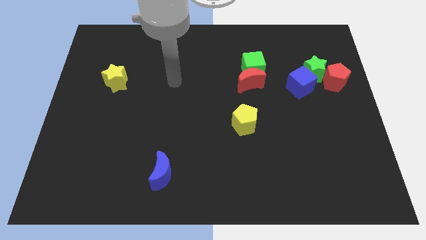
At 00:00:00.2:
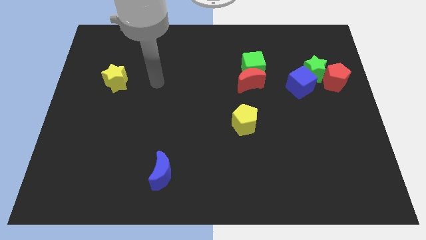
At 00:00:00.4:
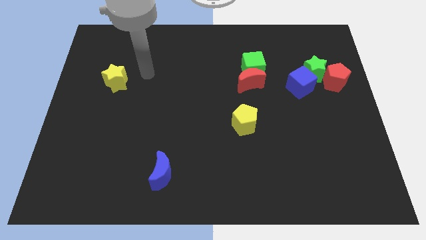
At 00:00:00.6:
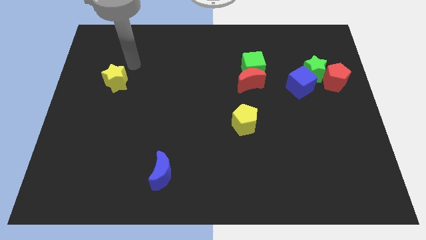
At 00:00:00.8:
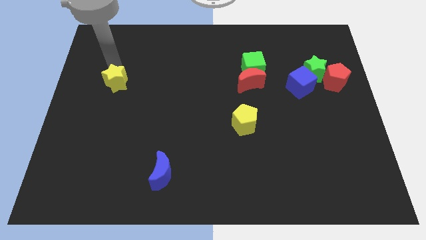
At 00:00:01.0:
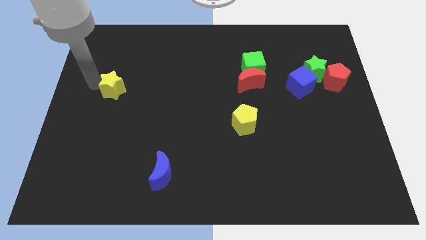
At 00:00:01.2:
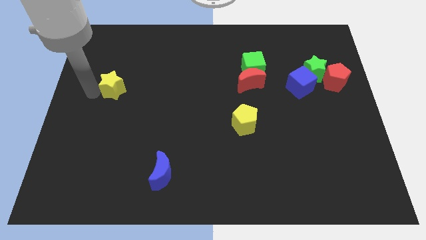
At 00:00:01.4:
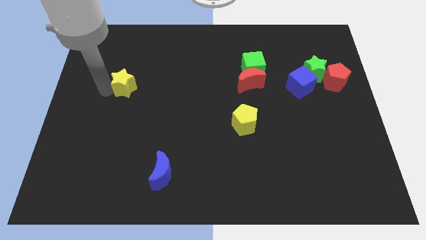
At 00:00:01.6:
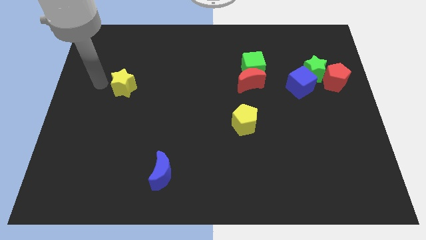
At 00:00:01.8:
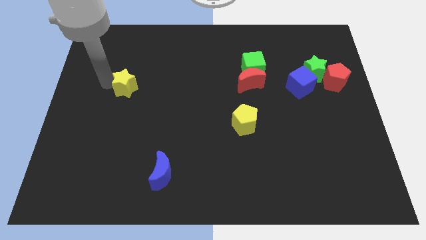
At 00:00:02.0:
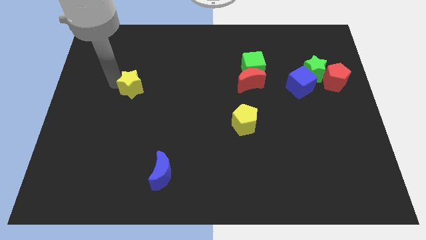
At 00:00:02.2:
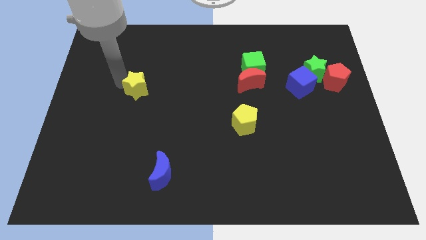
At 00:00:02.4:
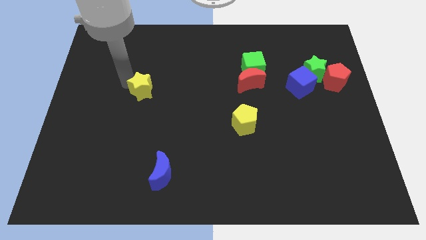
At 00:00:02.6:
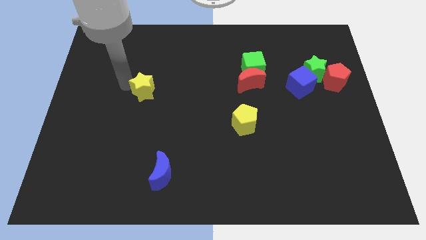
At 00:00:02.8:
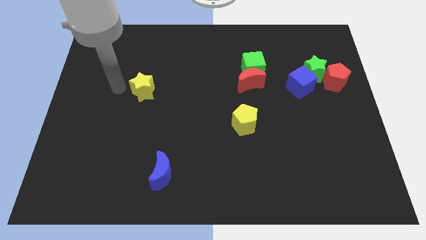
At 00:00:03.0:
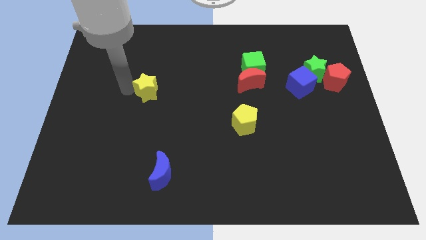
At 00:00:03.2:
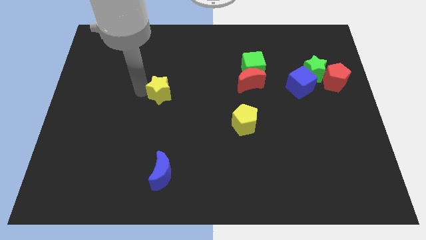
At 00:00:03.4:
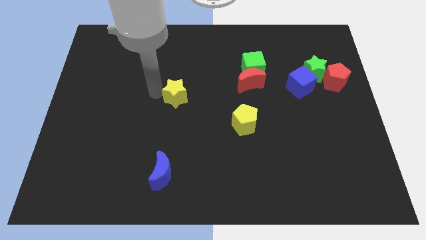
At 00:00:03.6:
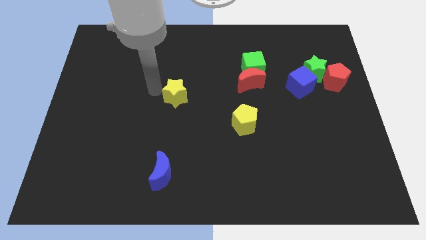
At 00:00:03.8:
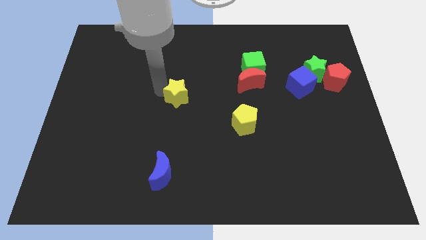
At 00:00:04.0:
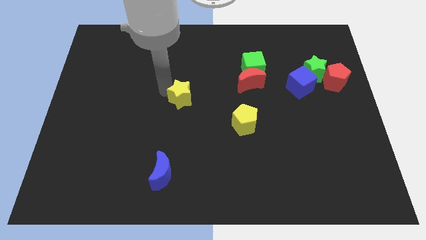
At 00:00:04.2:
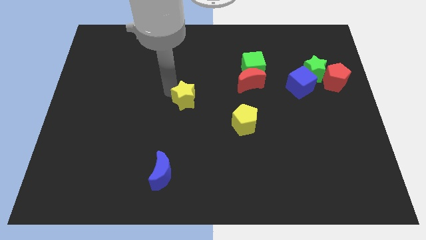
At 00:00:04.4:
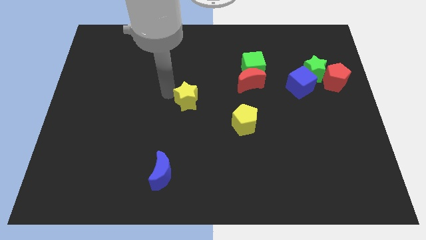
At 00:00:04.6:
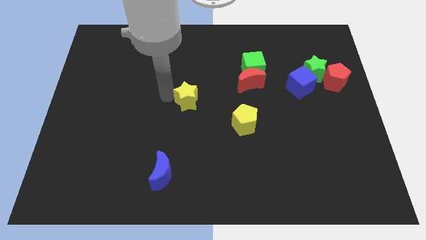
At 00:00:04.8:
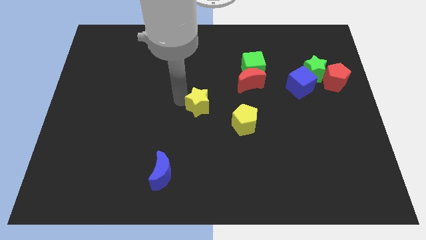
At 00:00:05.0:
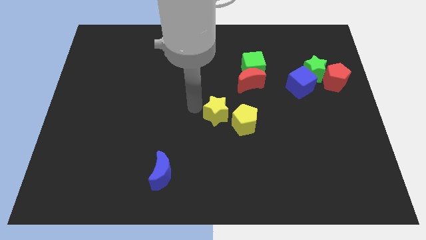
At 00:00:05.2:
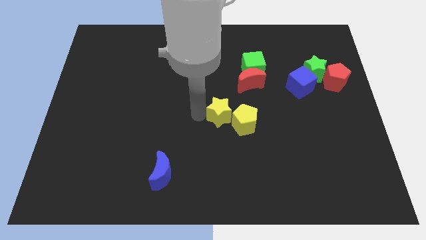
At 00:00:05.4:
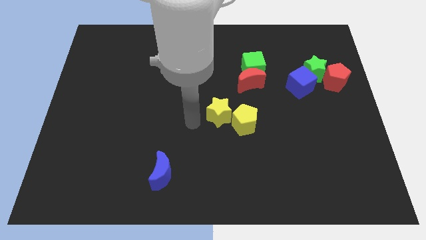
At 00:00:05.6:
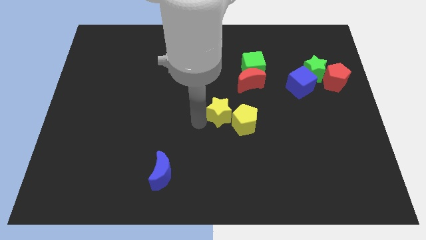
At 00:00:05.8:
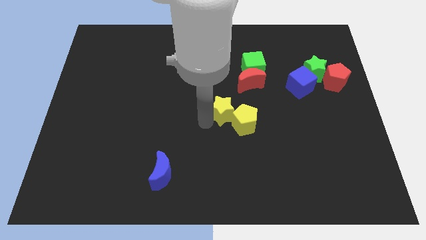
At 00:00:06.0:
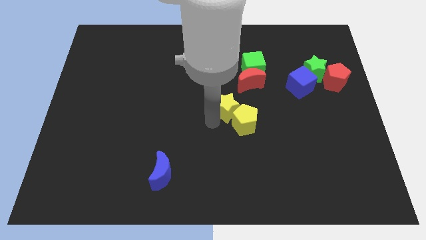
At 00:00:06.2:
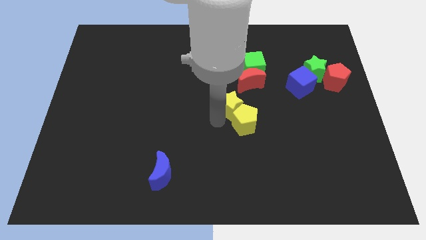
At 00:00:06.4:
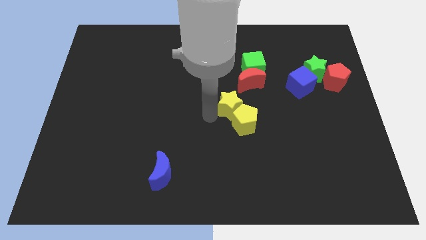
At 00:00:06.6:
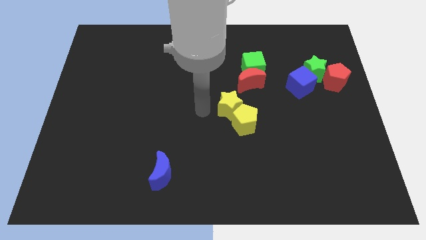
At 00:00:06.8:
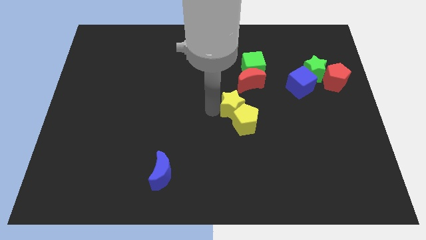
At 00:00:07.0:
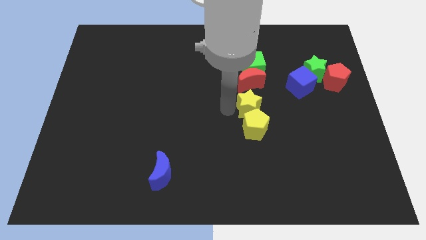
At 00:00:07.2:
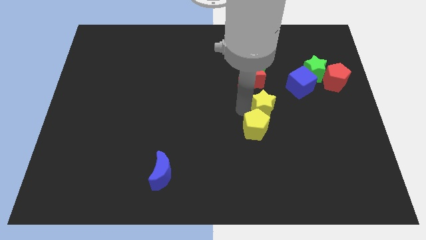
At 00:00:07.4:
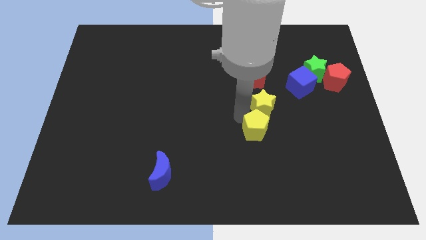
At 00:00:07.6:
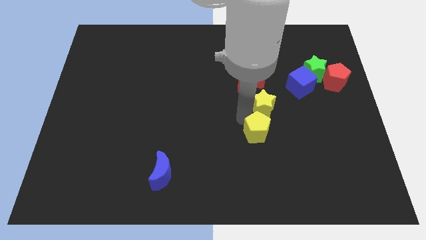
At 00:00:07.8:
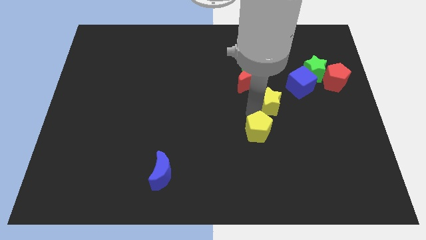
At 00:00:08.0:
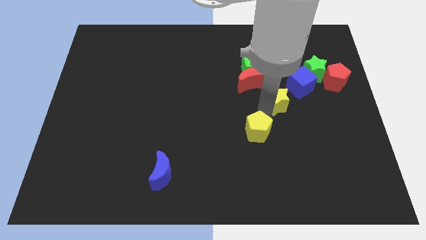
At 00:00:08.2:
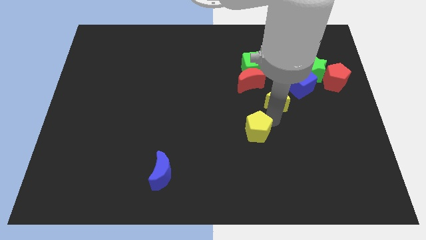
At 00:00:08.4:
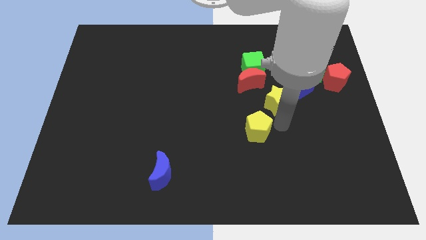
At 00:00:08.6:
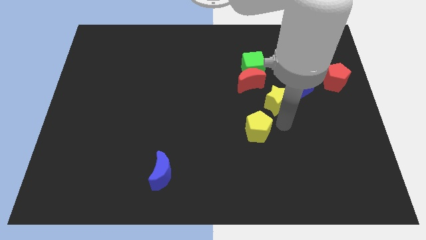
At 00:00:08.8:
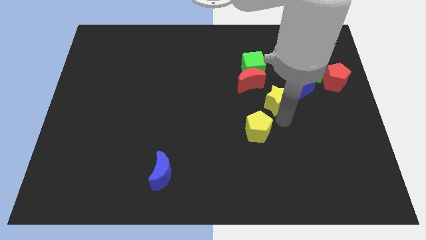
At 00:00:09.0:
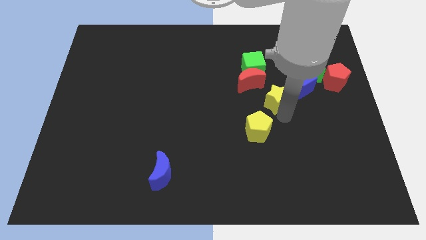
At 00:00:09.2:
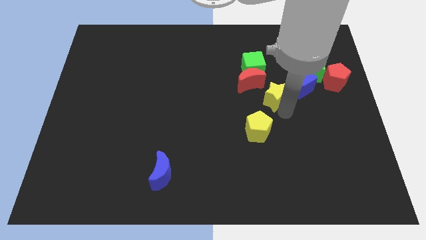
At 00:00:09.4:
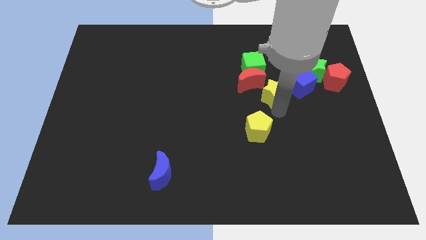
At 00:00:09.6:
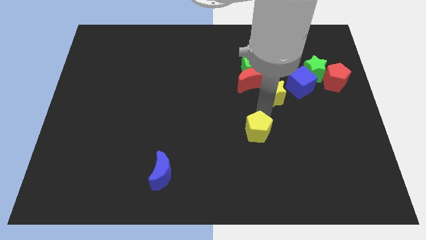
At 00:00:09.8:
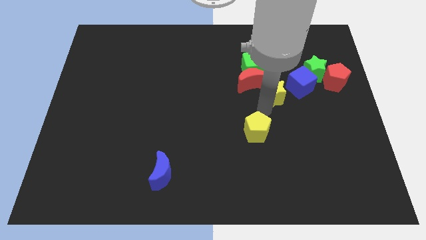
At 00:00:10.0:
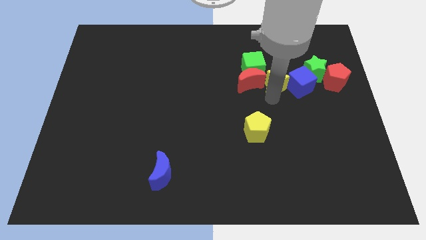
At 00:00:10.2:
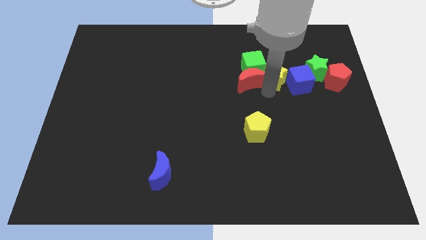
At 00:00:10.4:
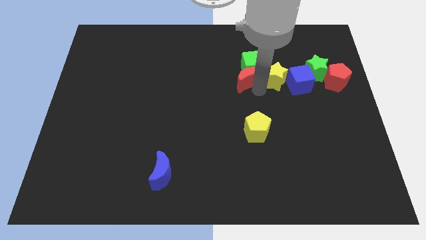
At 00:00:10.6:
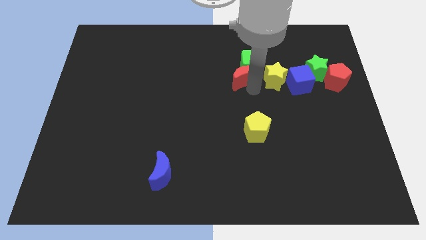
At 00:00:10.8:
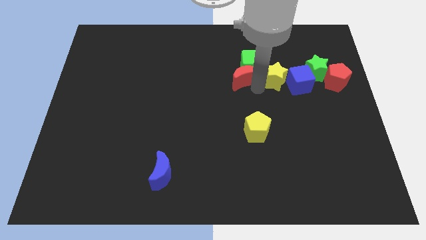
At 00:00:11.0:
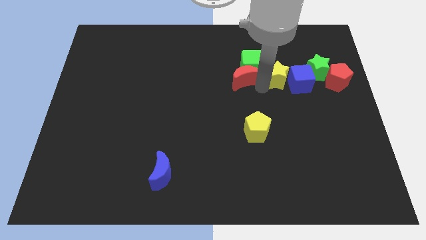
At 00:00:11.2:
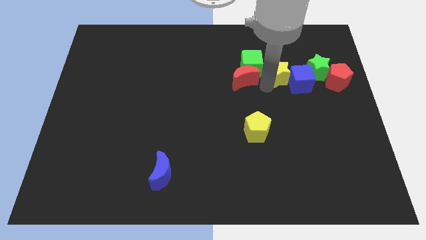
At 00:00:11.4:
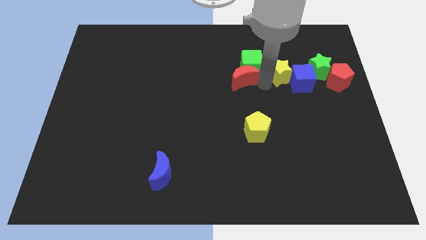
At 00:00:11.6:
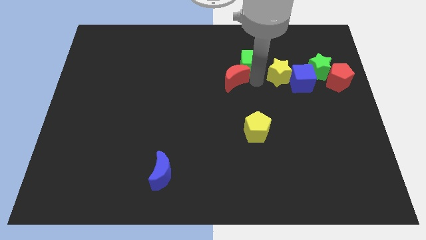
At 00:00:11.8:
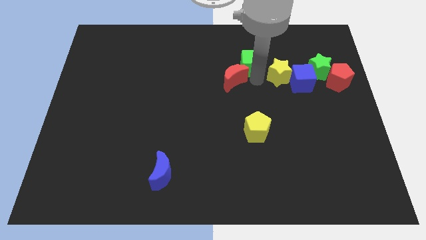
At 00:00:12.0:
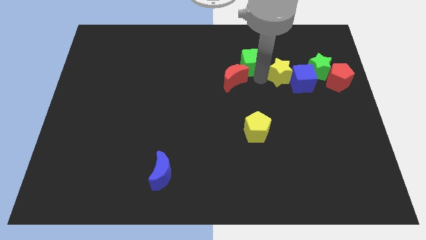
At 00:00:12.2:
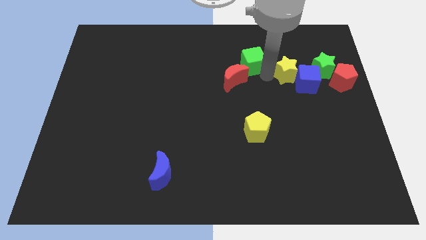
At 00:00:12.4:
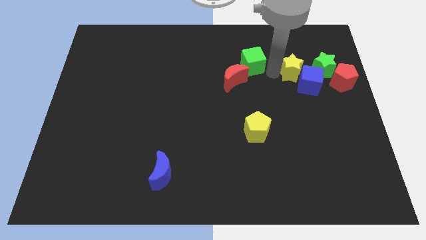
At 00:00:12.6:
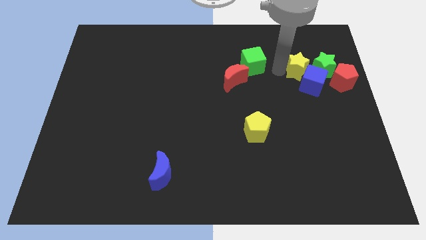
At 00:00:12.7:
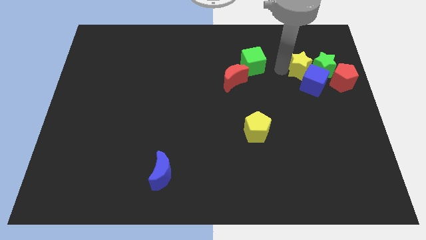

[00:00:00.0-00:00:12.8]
slide the yellow star to the green star

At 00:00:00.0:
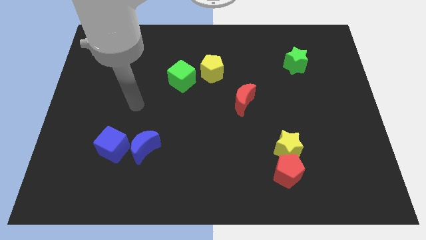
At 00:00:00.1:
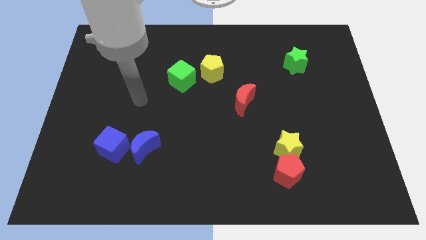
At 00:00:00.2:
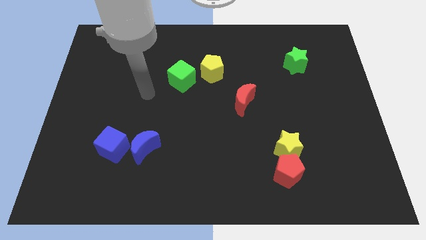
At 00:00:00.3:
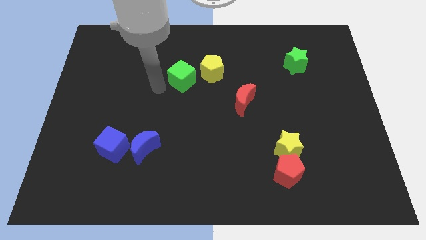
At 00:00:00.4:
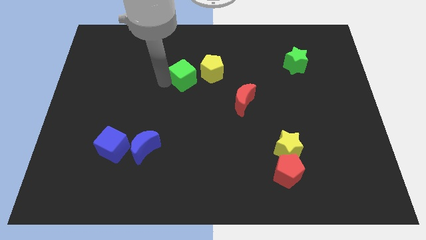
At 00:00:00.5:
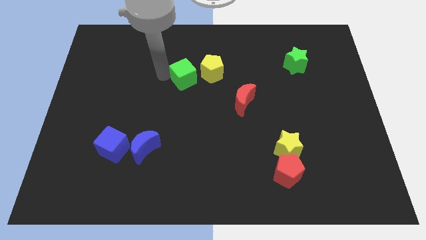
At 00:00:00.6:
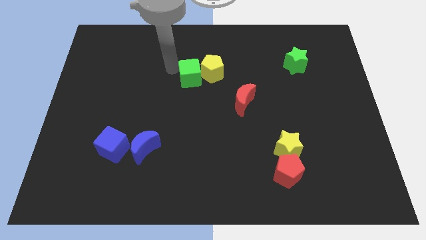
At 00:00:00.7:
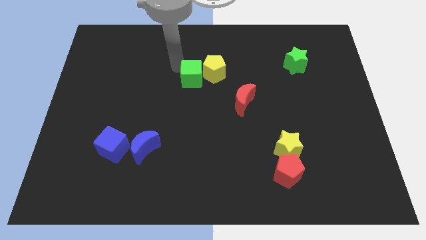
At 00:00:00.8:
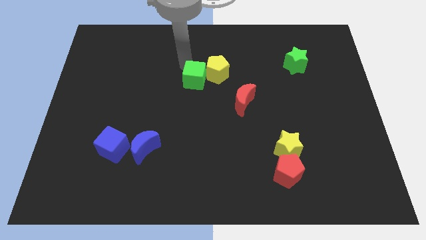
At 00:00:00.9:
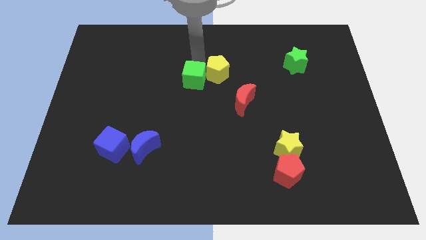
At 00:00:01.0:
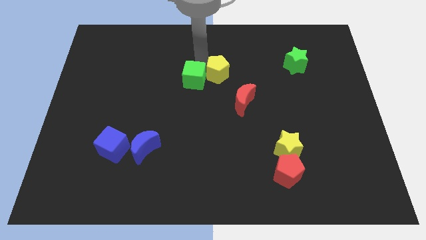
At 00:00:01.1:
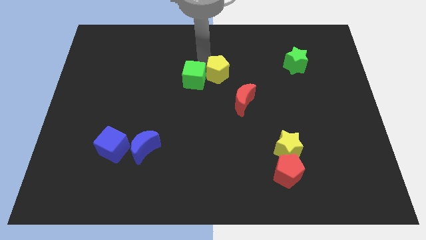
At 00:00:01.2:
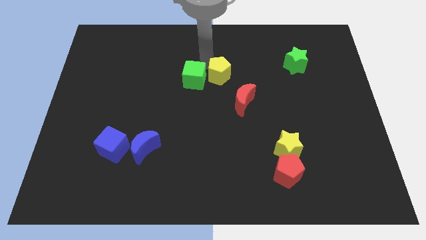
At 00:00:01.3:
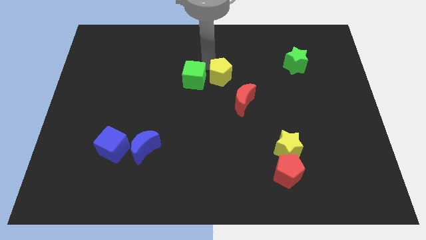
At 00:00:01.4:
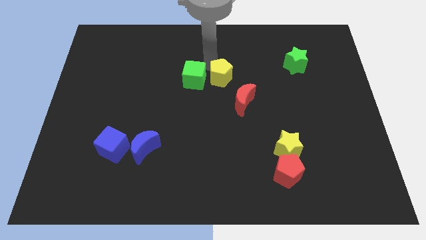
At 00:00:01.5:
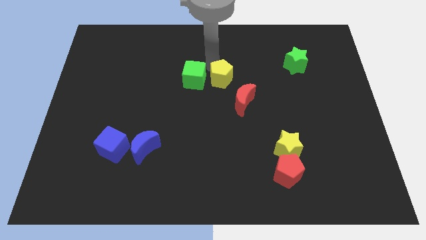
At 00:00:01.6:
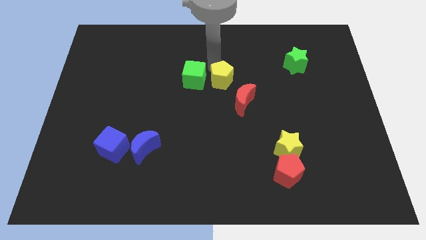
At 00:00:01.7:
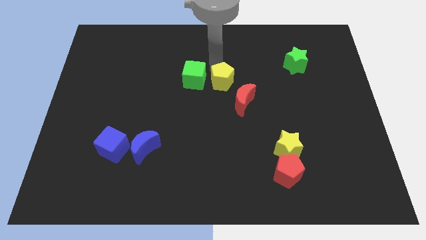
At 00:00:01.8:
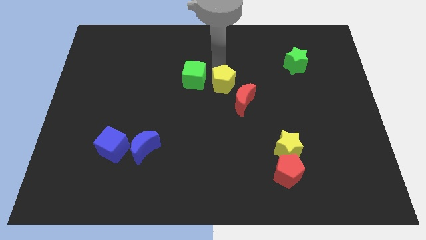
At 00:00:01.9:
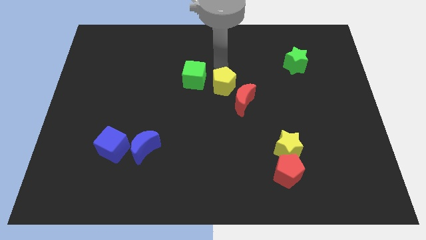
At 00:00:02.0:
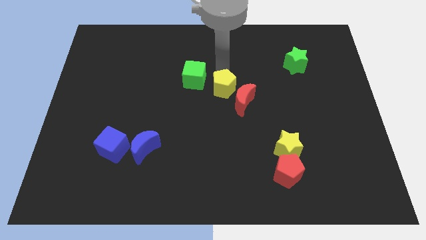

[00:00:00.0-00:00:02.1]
put the yellow pentagon to the red moon
